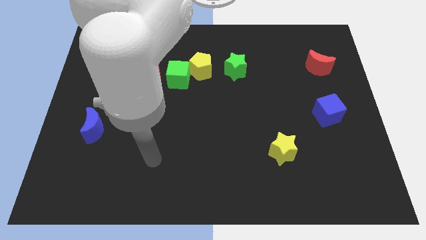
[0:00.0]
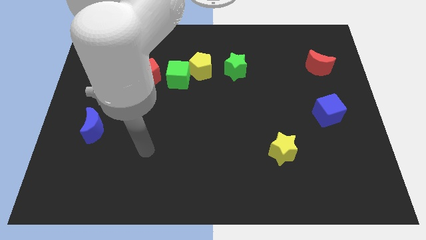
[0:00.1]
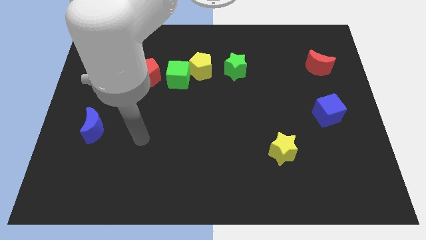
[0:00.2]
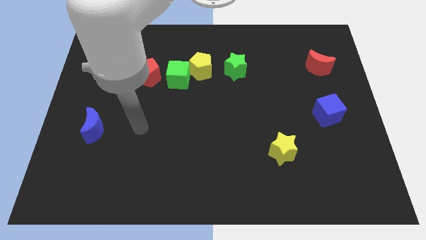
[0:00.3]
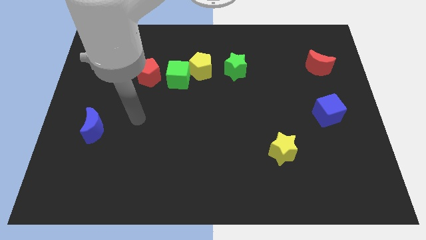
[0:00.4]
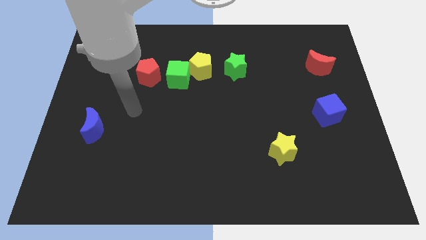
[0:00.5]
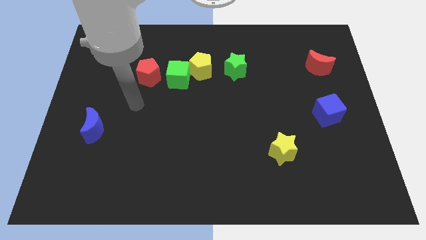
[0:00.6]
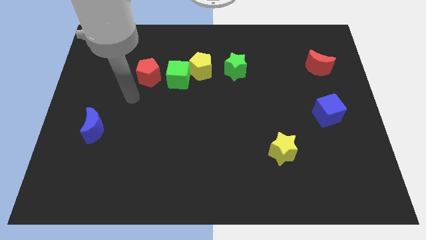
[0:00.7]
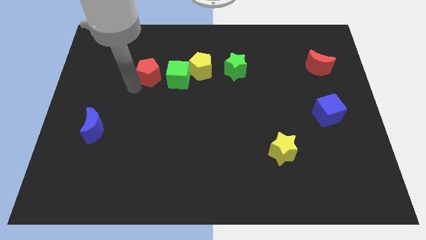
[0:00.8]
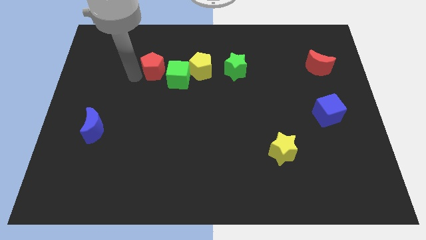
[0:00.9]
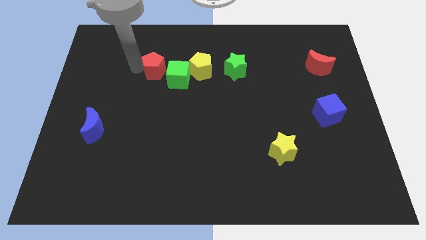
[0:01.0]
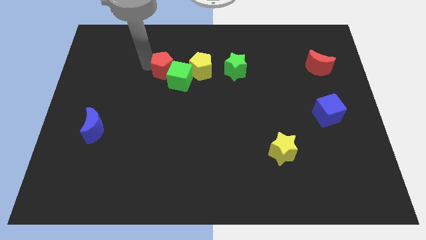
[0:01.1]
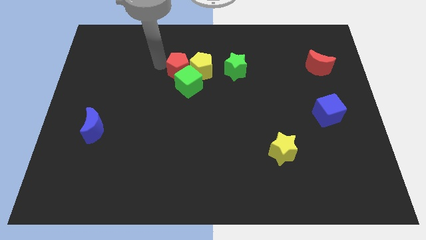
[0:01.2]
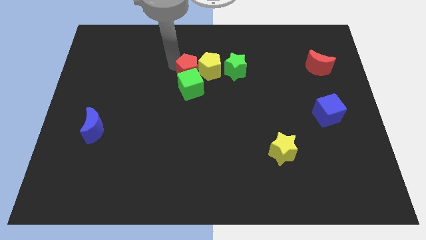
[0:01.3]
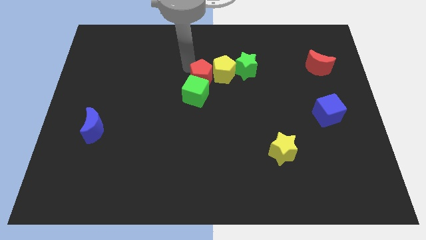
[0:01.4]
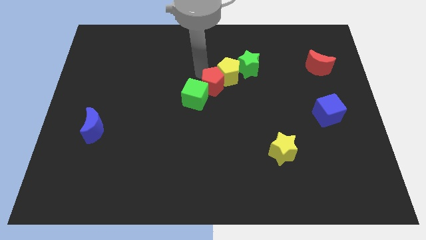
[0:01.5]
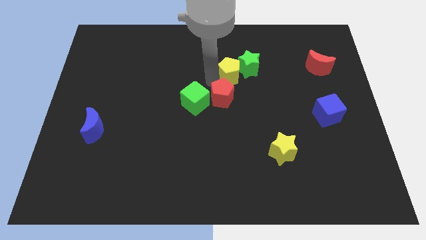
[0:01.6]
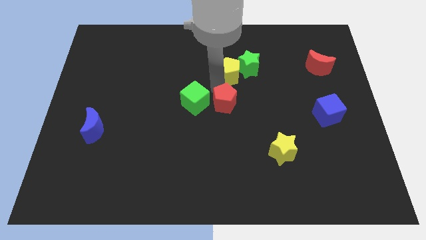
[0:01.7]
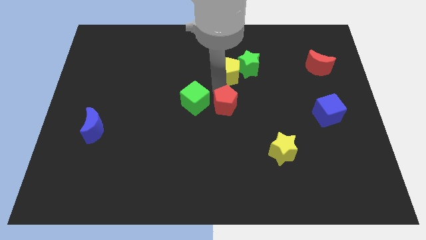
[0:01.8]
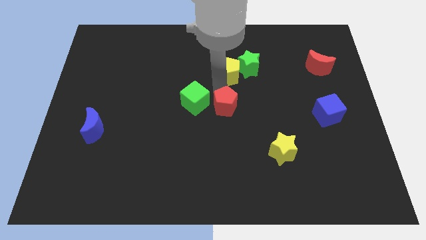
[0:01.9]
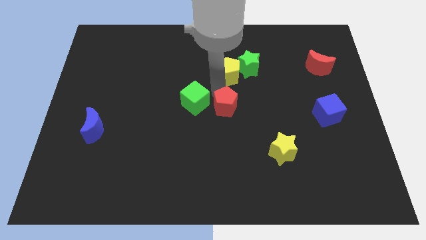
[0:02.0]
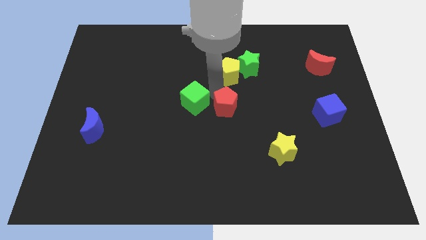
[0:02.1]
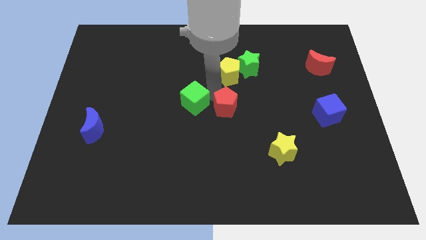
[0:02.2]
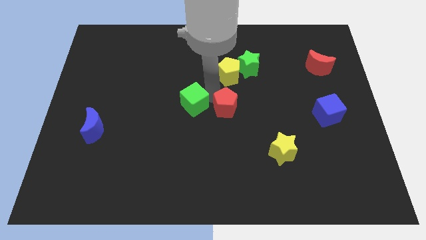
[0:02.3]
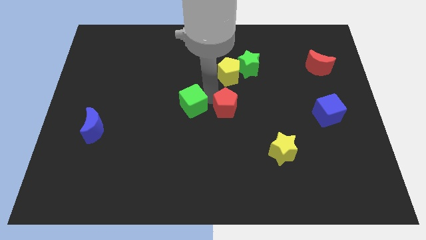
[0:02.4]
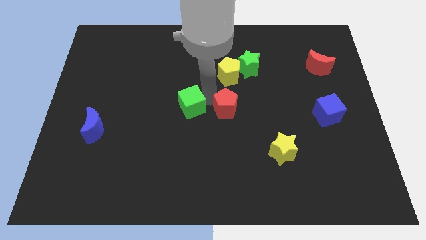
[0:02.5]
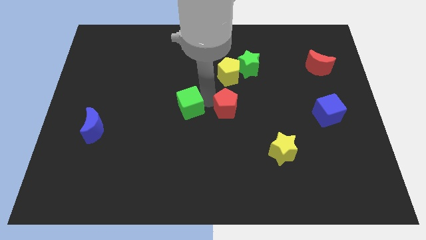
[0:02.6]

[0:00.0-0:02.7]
move the green cube away from the yellow pentagon and red pentagon

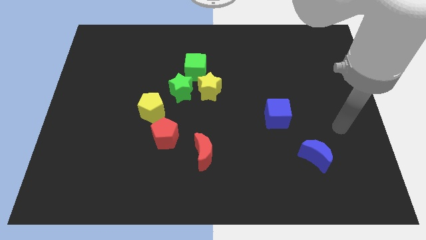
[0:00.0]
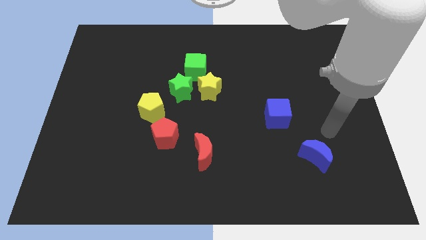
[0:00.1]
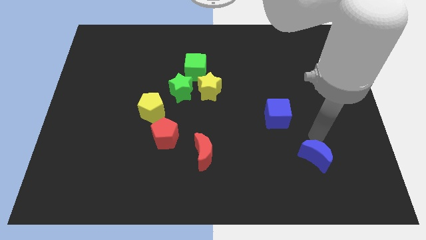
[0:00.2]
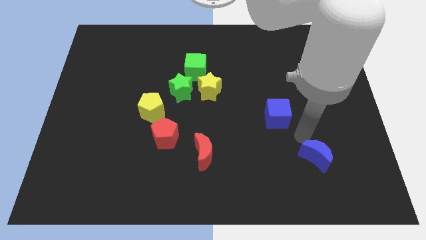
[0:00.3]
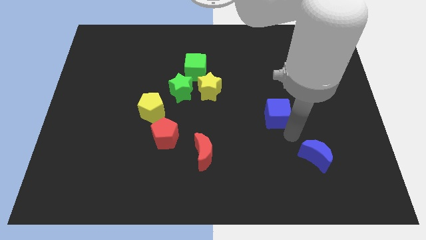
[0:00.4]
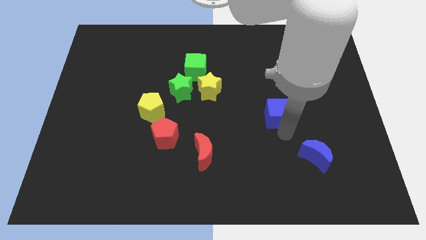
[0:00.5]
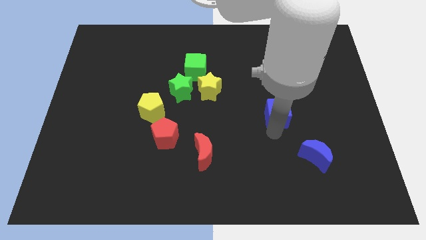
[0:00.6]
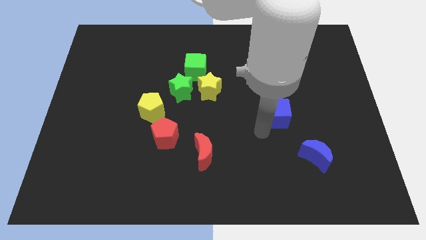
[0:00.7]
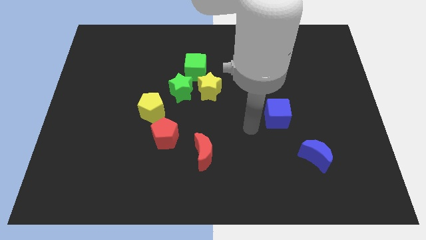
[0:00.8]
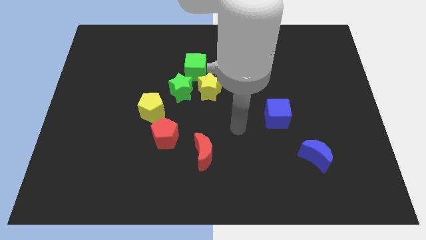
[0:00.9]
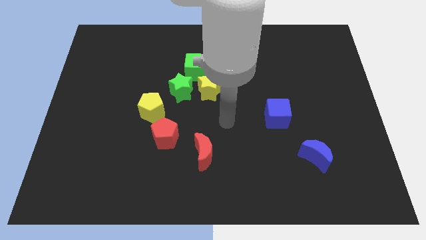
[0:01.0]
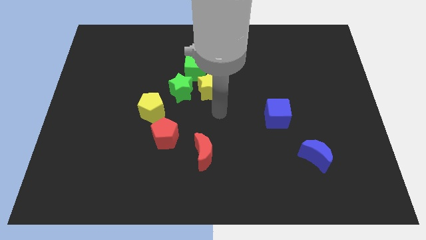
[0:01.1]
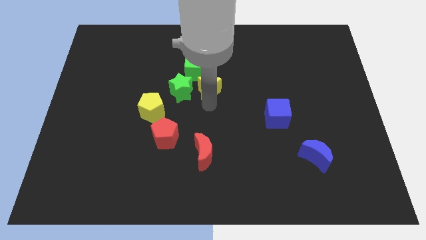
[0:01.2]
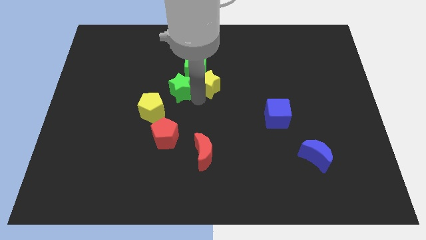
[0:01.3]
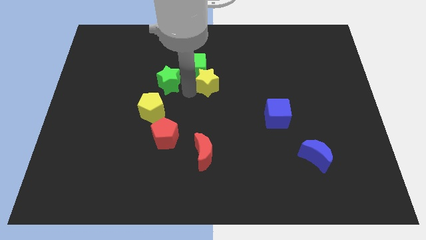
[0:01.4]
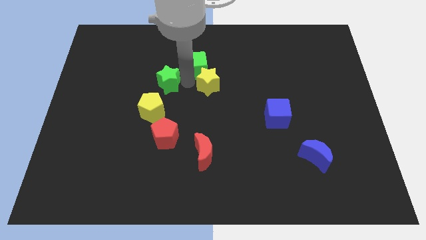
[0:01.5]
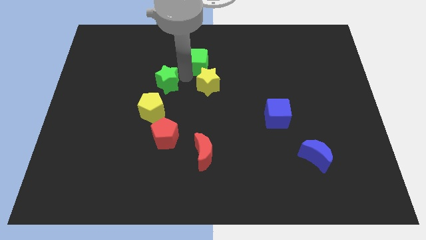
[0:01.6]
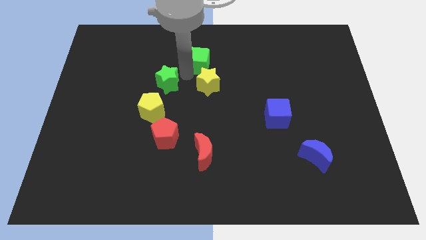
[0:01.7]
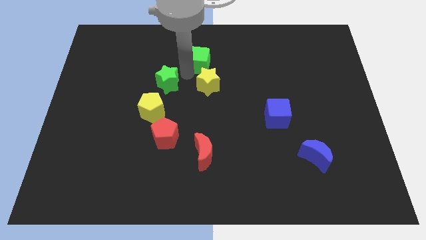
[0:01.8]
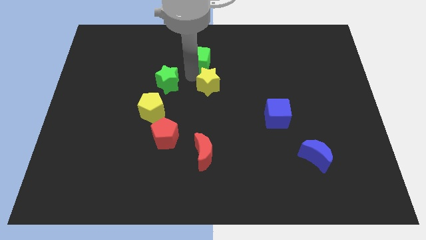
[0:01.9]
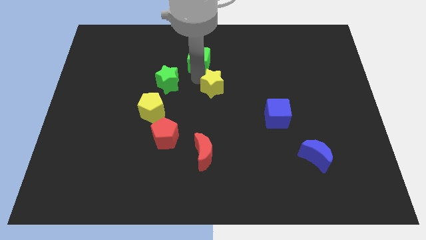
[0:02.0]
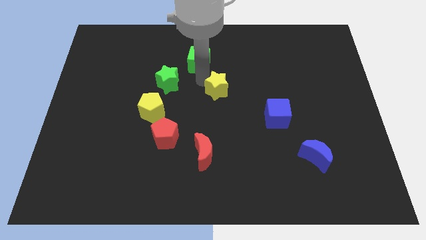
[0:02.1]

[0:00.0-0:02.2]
move the yellow star away from the green star and green cube

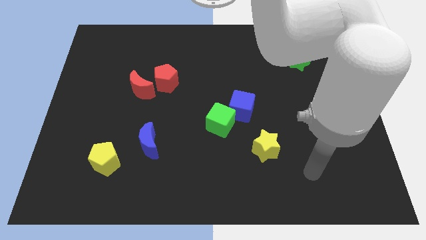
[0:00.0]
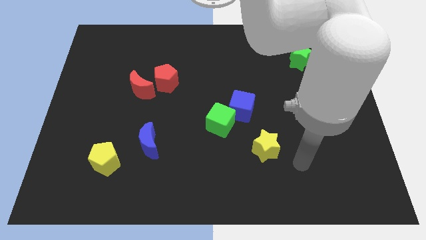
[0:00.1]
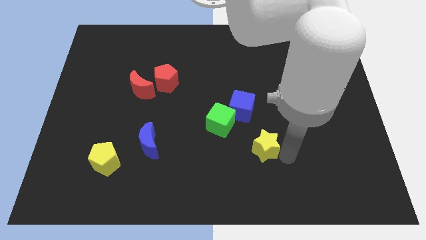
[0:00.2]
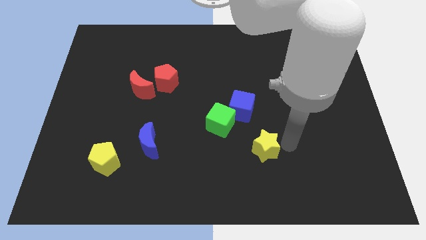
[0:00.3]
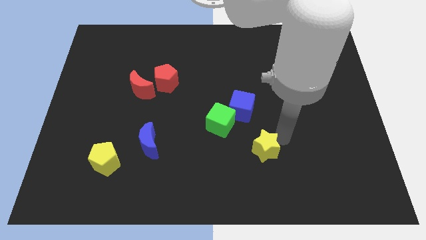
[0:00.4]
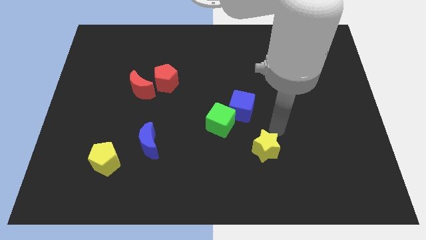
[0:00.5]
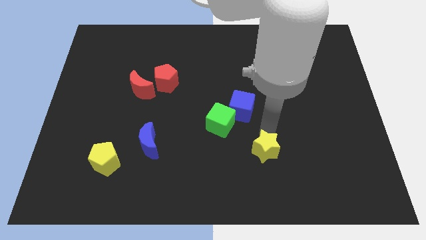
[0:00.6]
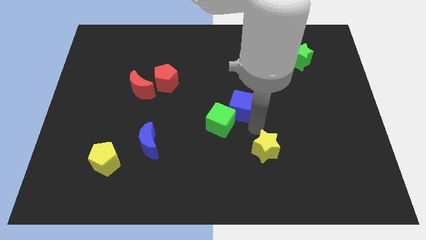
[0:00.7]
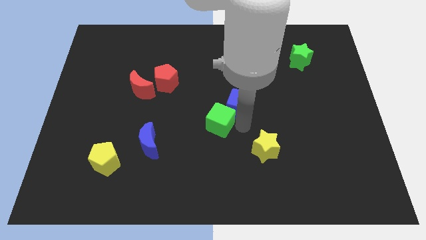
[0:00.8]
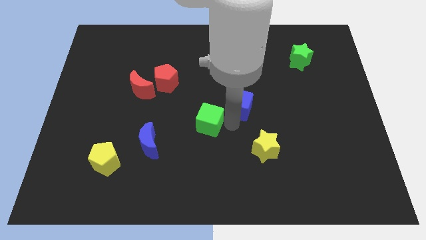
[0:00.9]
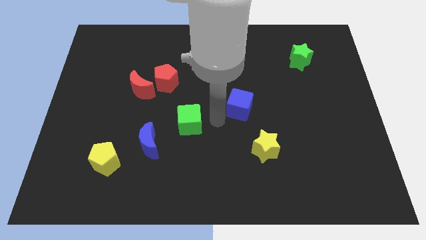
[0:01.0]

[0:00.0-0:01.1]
move the blue cube away from the green cube

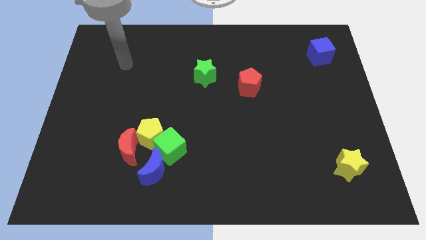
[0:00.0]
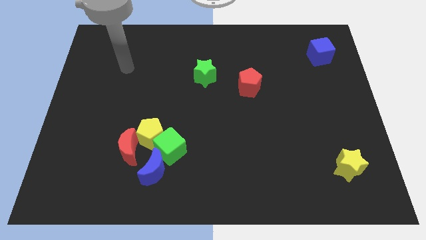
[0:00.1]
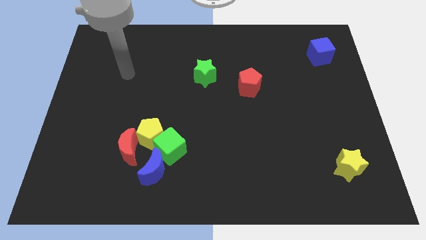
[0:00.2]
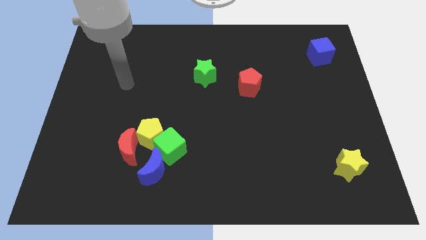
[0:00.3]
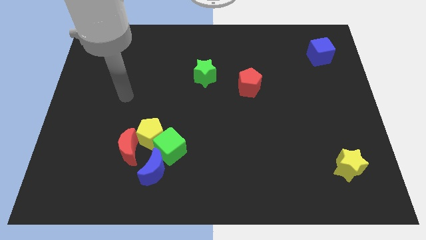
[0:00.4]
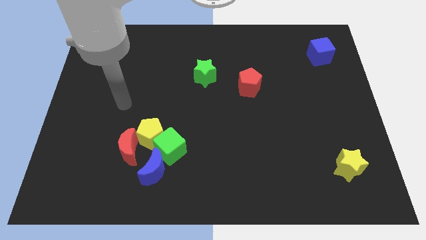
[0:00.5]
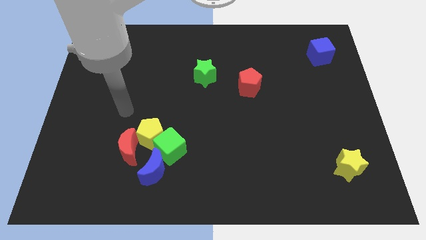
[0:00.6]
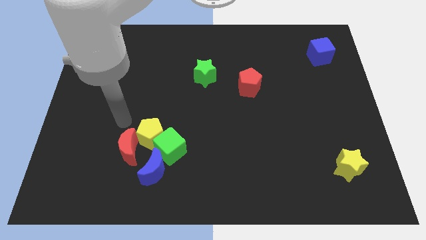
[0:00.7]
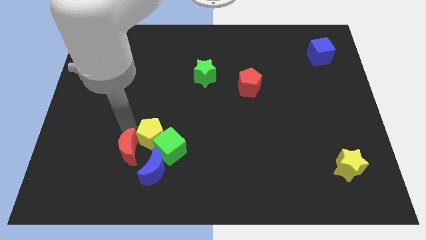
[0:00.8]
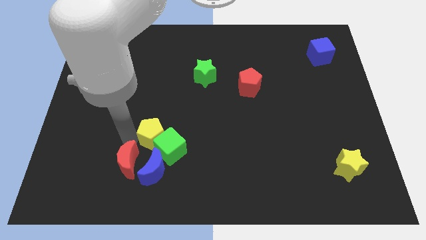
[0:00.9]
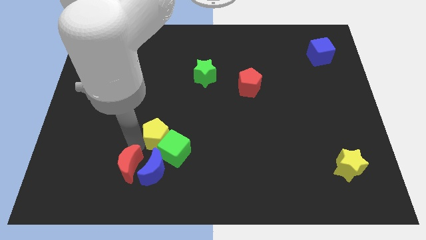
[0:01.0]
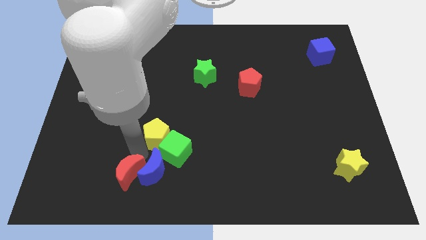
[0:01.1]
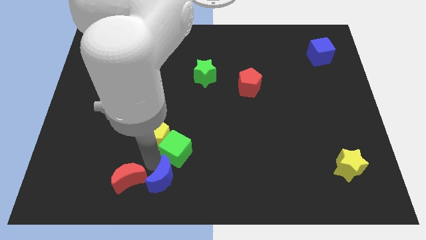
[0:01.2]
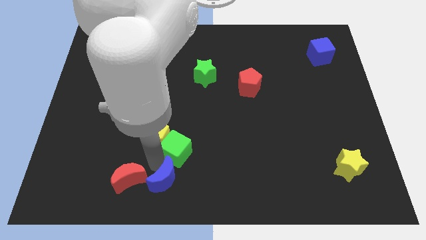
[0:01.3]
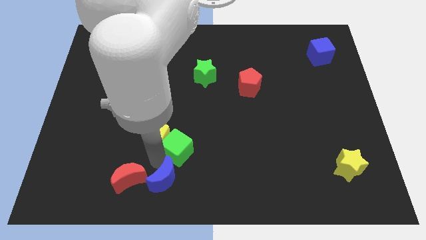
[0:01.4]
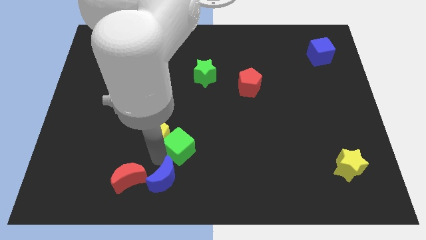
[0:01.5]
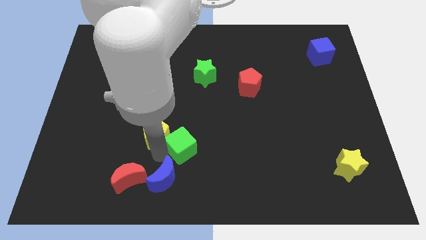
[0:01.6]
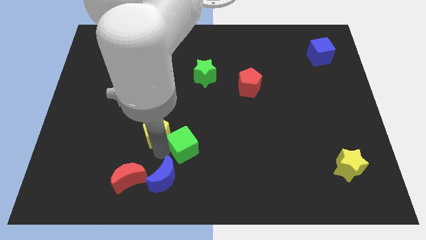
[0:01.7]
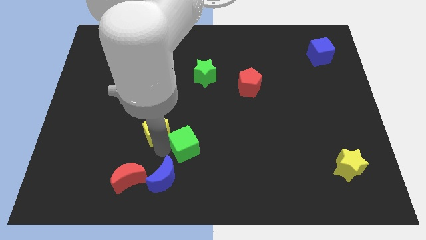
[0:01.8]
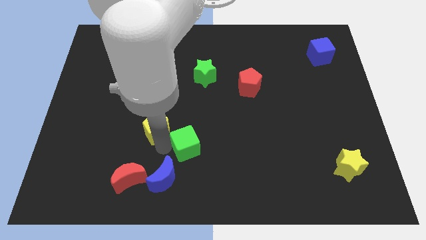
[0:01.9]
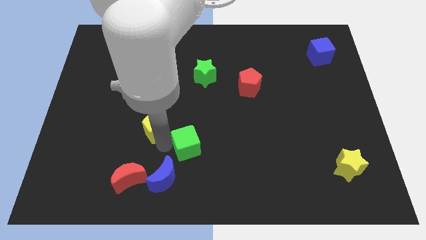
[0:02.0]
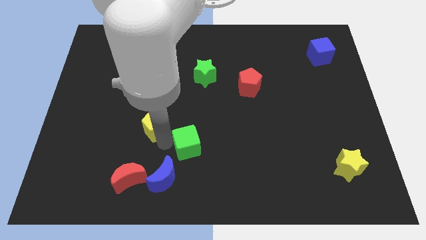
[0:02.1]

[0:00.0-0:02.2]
move the yellow pentagon away from the clump

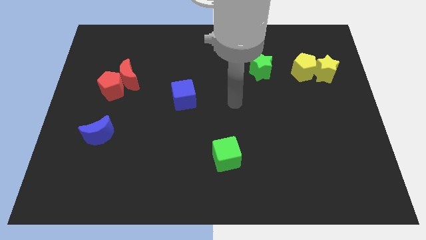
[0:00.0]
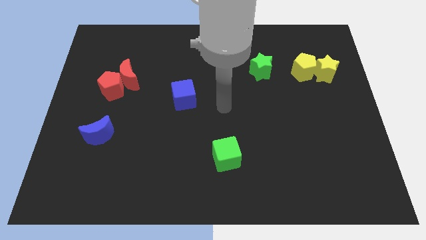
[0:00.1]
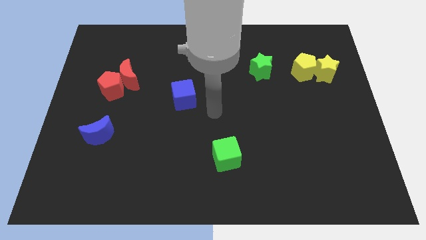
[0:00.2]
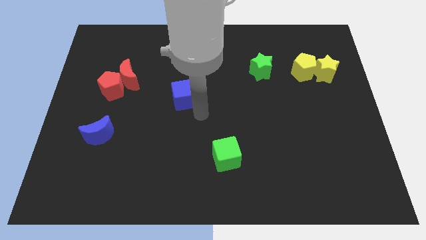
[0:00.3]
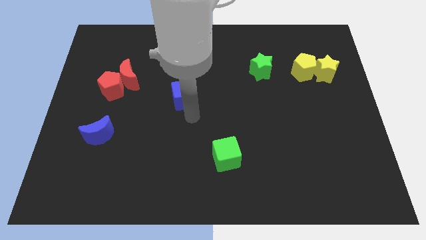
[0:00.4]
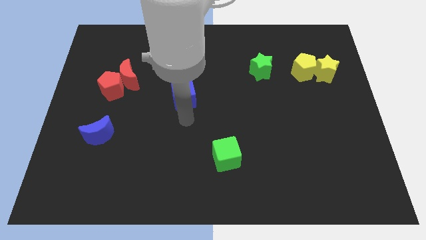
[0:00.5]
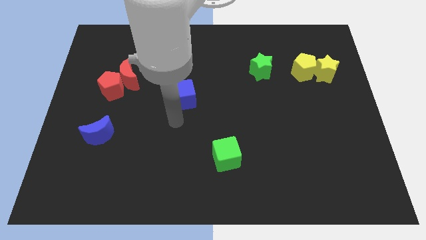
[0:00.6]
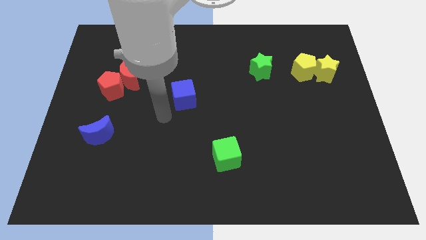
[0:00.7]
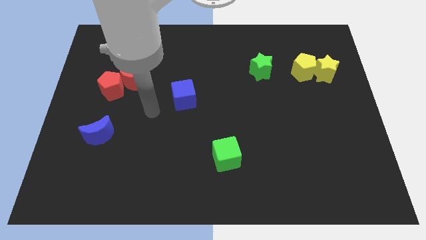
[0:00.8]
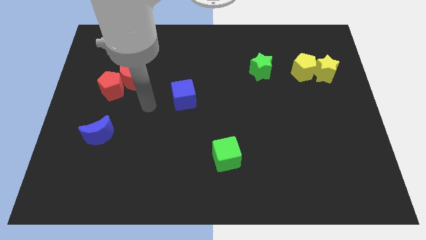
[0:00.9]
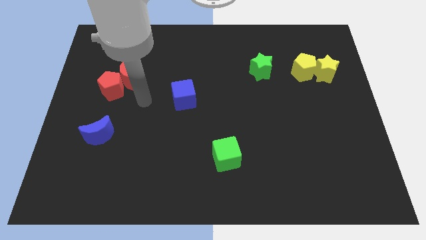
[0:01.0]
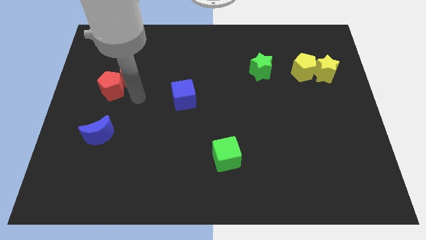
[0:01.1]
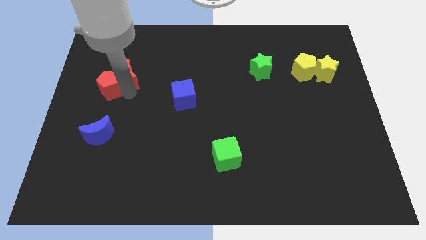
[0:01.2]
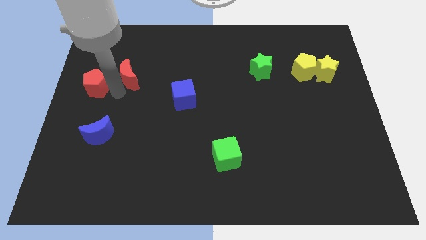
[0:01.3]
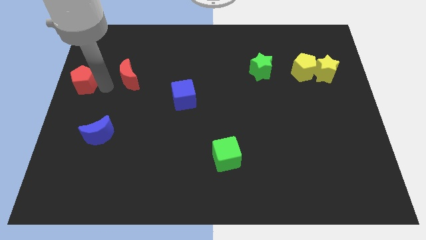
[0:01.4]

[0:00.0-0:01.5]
separate the red moon from the red pentagon
